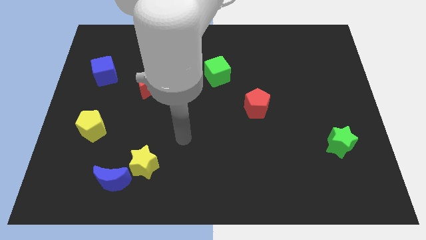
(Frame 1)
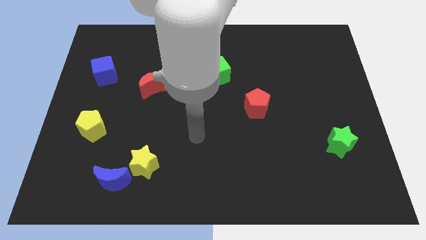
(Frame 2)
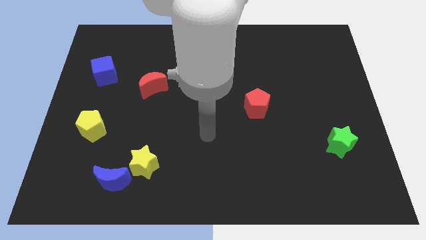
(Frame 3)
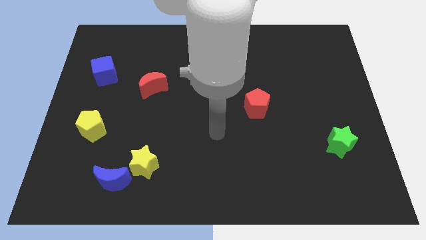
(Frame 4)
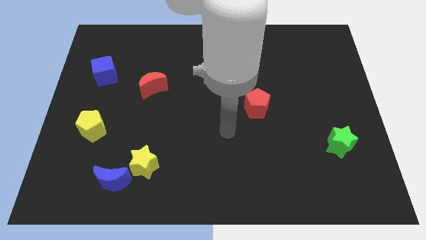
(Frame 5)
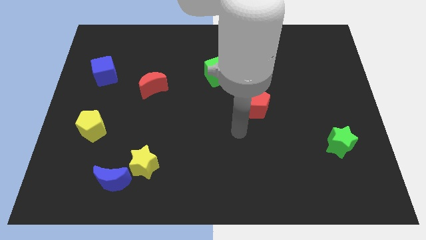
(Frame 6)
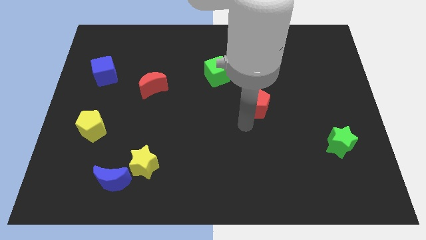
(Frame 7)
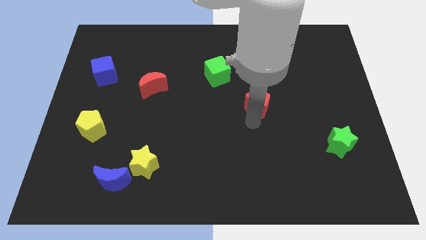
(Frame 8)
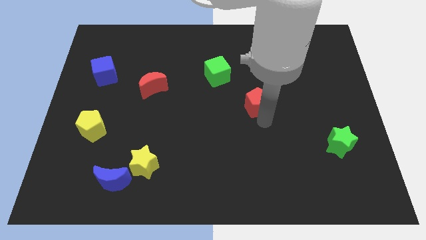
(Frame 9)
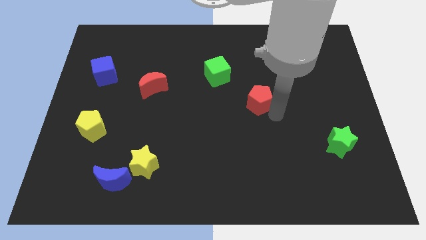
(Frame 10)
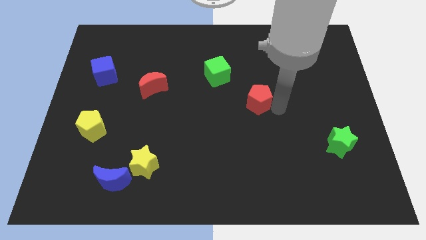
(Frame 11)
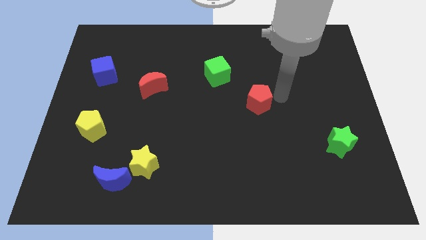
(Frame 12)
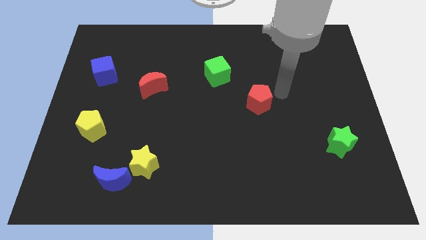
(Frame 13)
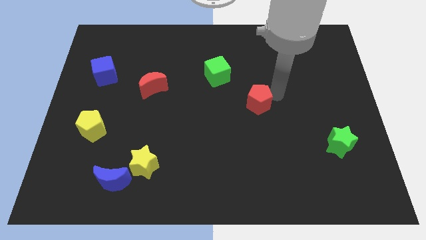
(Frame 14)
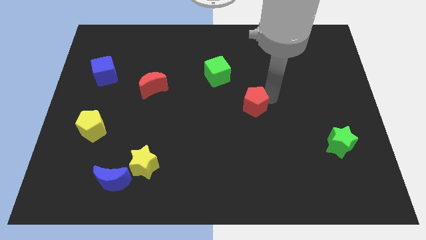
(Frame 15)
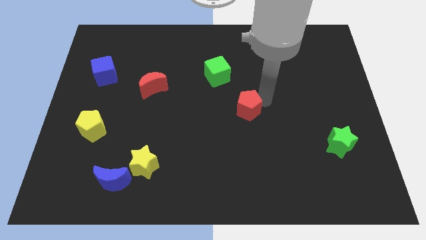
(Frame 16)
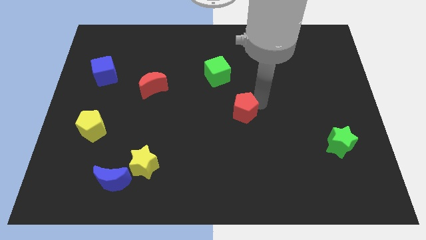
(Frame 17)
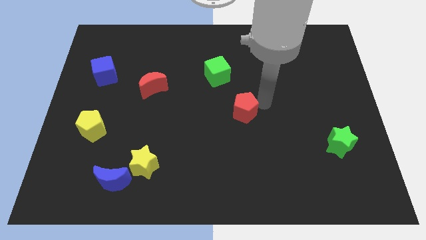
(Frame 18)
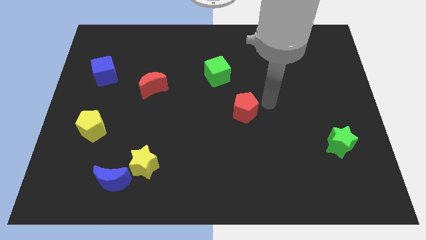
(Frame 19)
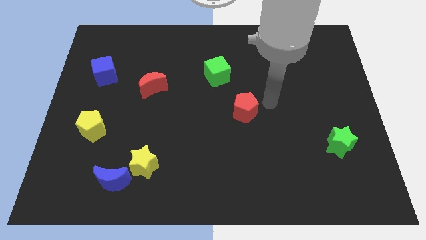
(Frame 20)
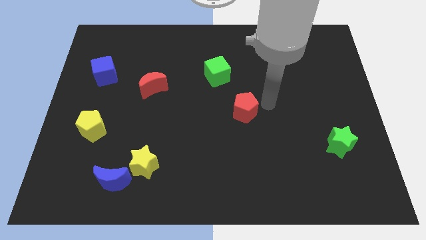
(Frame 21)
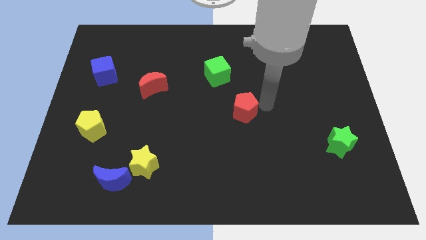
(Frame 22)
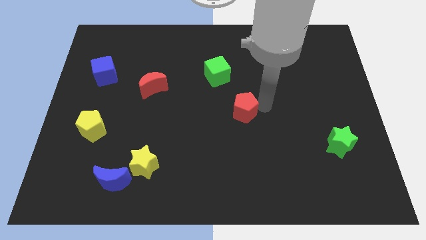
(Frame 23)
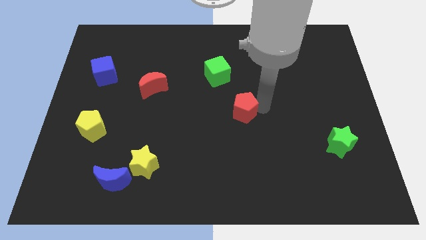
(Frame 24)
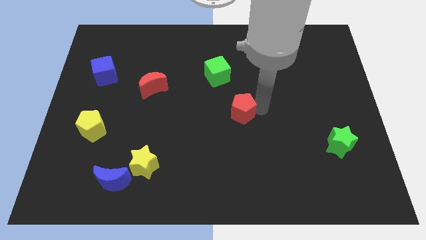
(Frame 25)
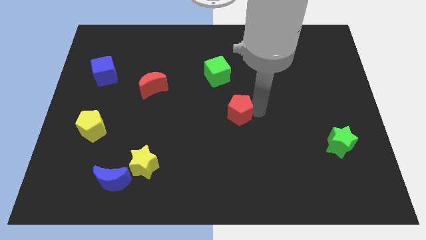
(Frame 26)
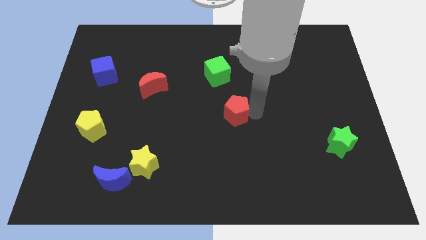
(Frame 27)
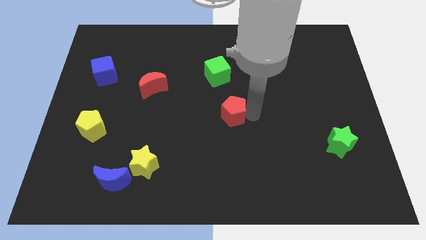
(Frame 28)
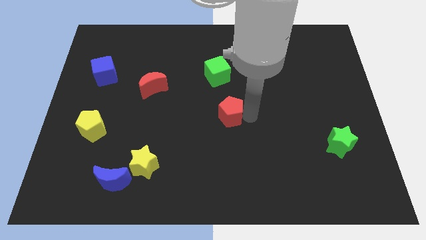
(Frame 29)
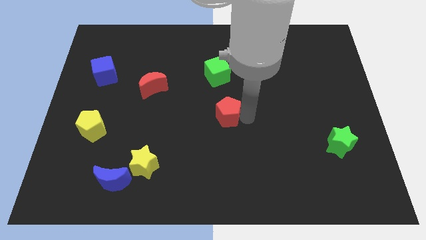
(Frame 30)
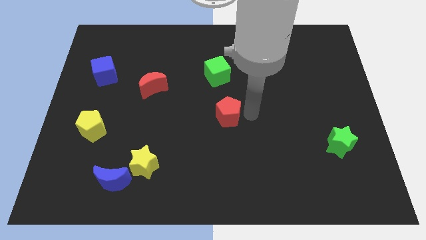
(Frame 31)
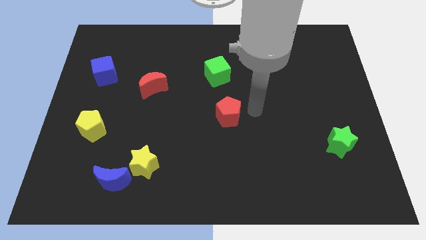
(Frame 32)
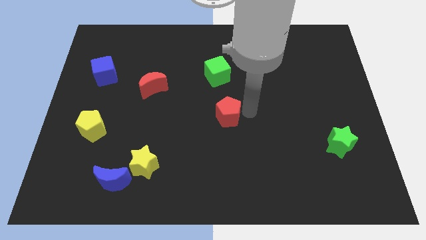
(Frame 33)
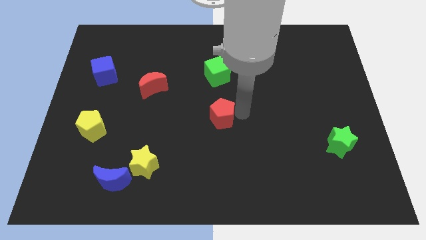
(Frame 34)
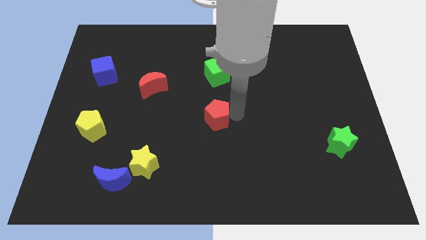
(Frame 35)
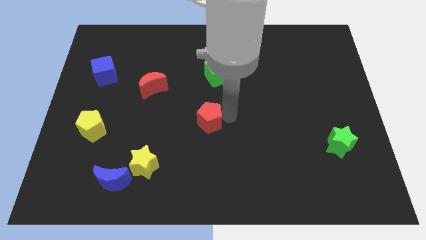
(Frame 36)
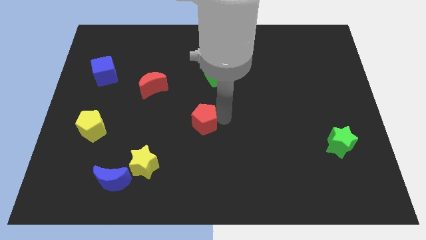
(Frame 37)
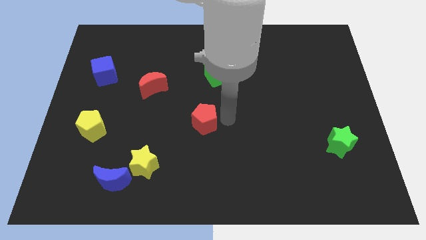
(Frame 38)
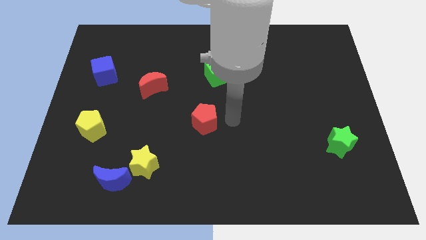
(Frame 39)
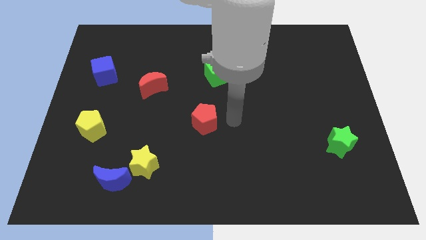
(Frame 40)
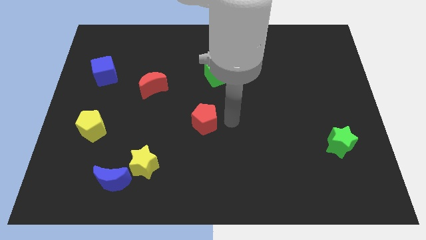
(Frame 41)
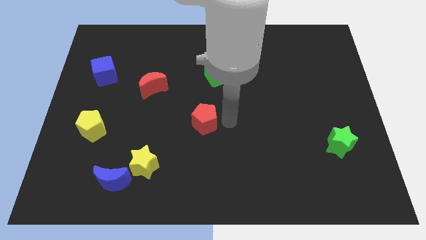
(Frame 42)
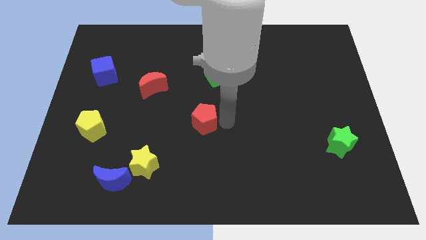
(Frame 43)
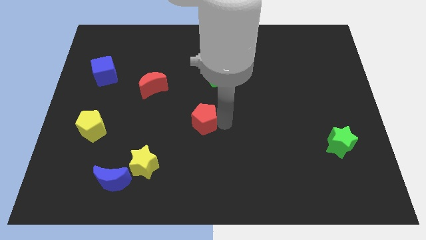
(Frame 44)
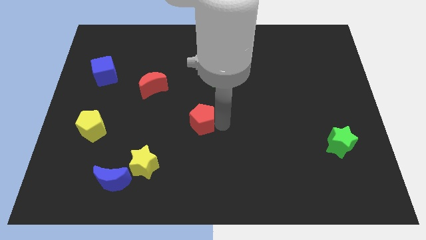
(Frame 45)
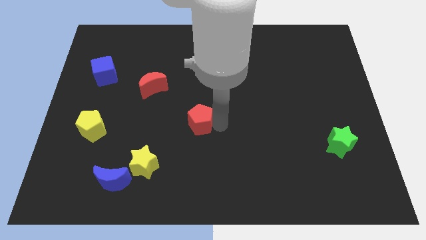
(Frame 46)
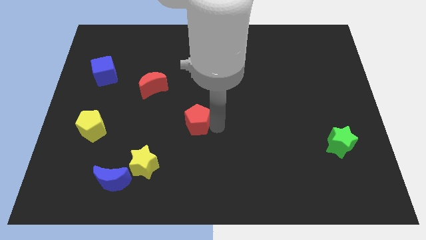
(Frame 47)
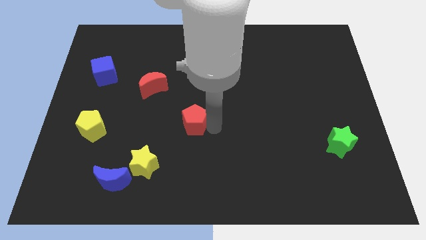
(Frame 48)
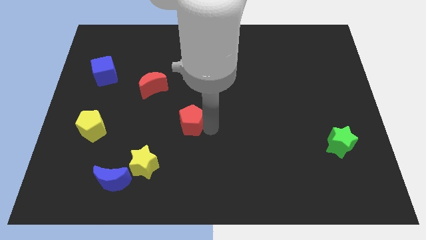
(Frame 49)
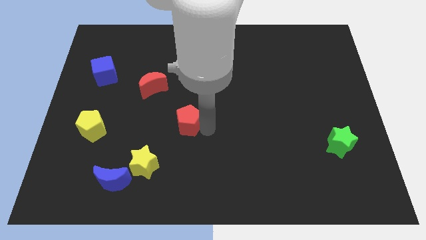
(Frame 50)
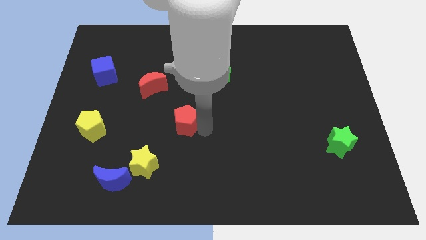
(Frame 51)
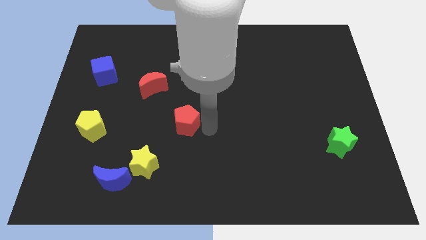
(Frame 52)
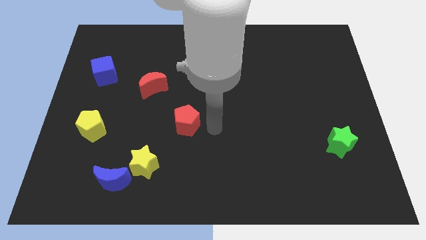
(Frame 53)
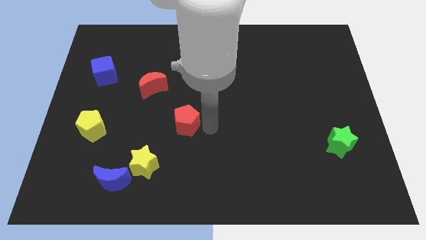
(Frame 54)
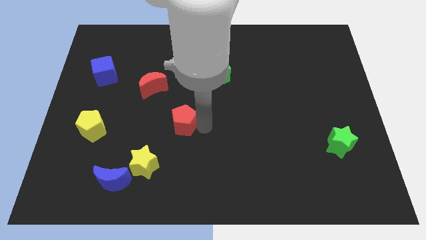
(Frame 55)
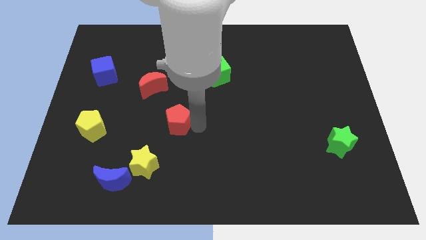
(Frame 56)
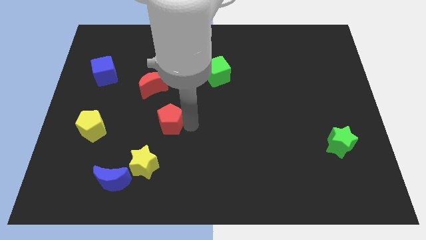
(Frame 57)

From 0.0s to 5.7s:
move the red pentagon to the top of the yellow star

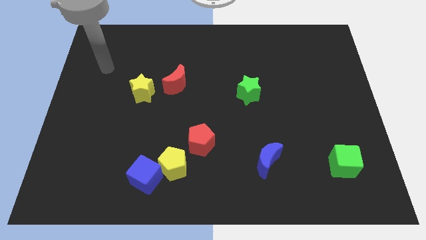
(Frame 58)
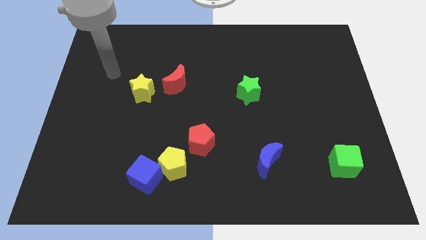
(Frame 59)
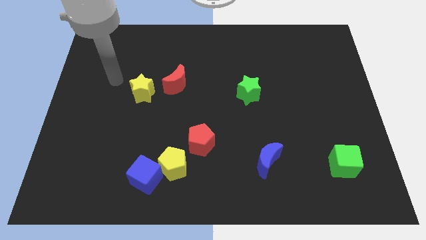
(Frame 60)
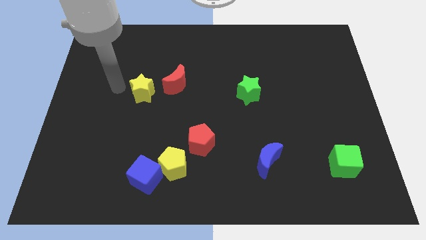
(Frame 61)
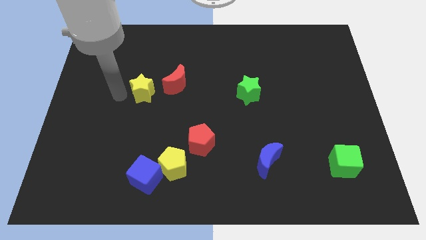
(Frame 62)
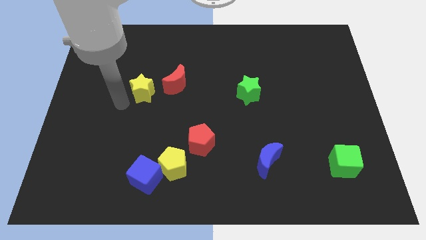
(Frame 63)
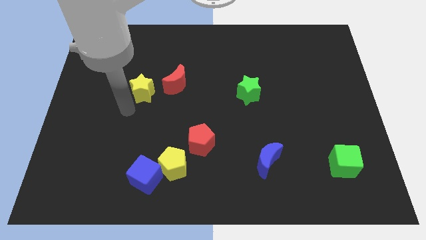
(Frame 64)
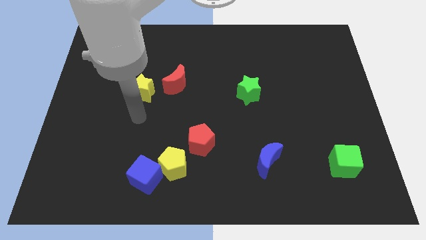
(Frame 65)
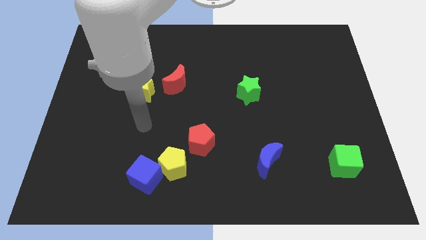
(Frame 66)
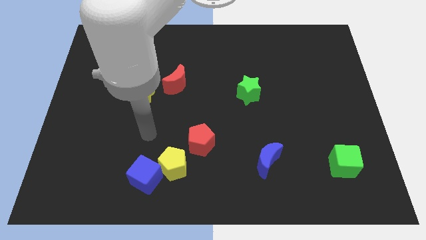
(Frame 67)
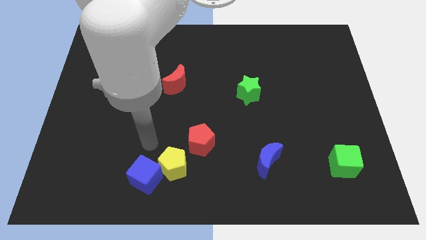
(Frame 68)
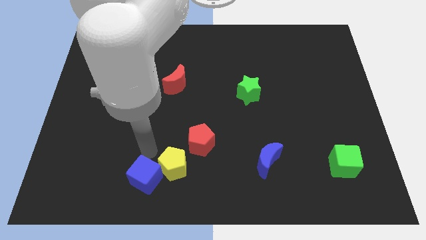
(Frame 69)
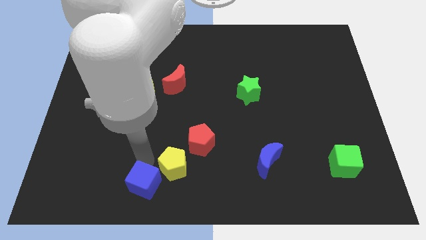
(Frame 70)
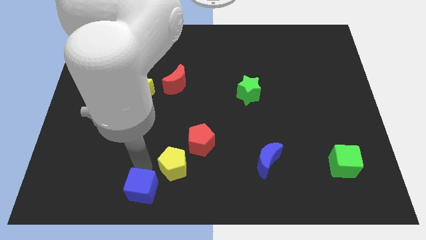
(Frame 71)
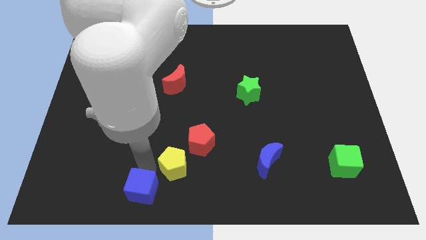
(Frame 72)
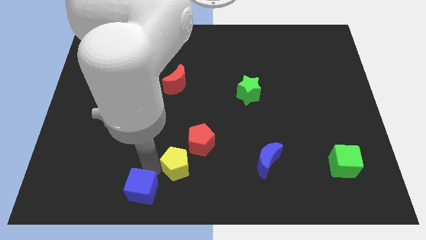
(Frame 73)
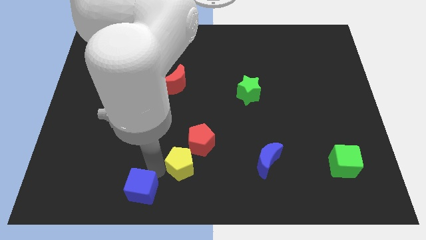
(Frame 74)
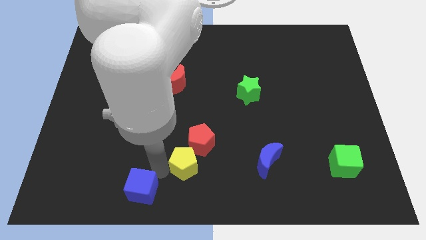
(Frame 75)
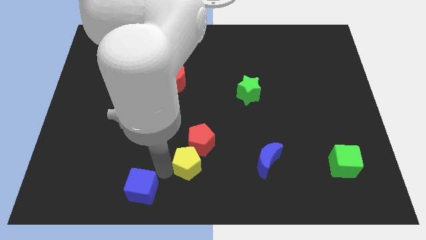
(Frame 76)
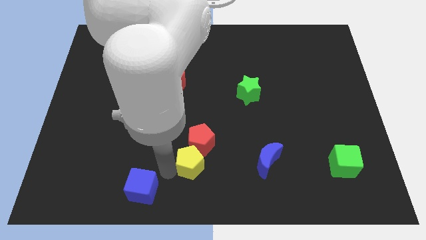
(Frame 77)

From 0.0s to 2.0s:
push the yellow pentagon just left of the blue moon

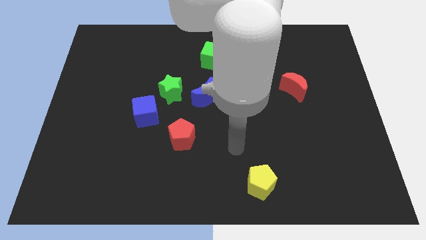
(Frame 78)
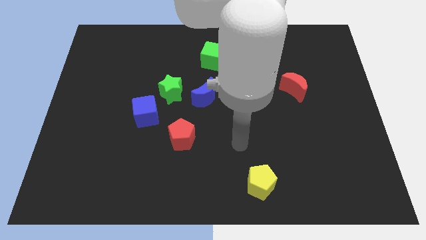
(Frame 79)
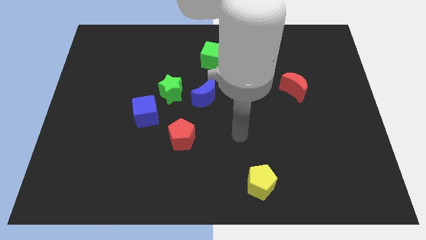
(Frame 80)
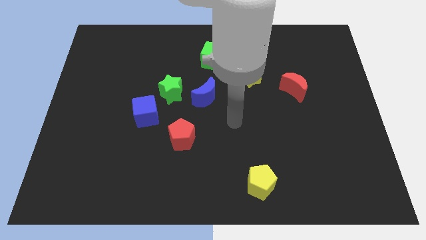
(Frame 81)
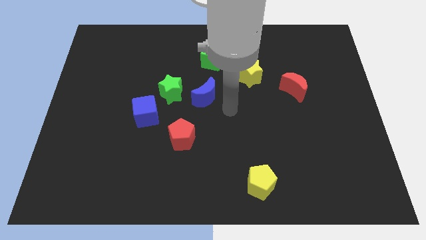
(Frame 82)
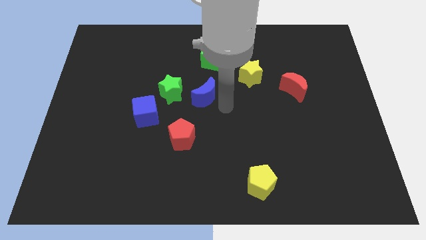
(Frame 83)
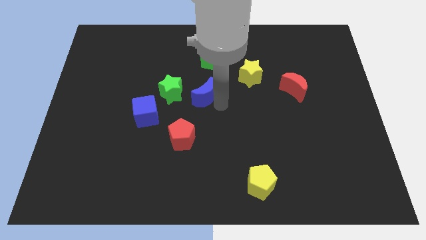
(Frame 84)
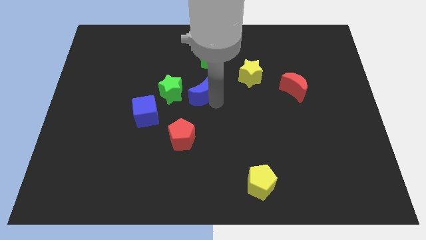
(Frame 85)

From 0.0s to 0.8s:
push the blue moon to the top of the red pentagon
